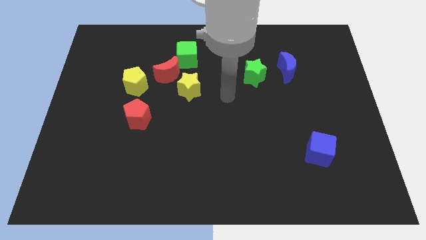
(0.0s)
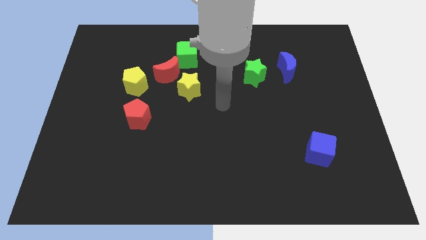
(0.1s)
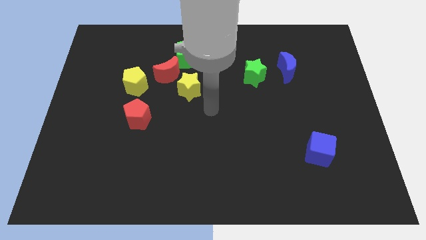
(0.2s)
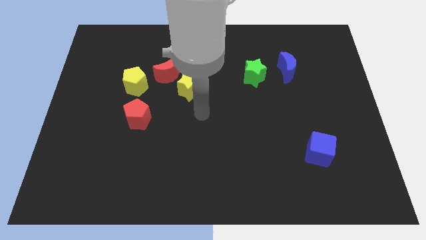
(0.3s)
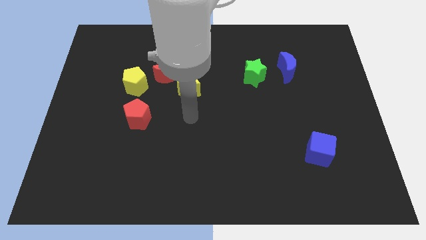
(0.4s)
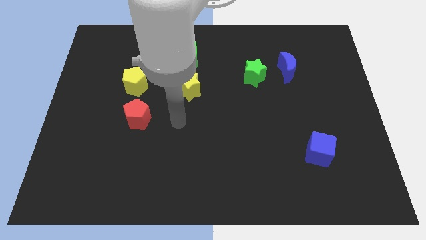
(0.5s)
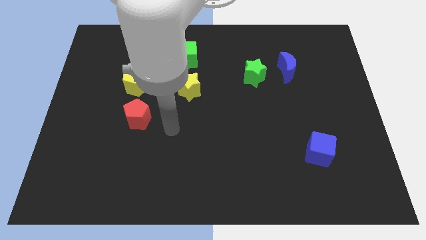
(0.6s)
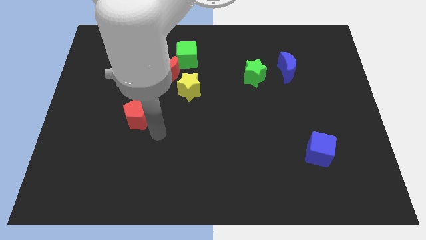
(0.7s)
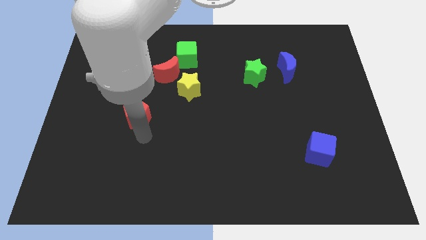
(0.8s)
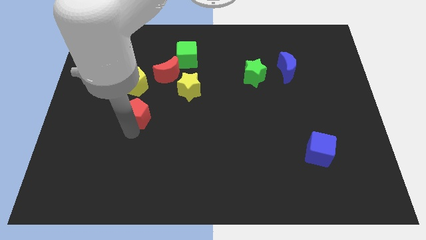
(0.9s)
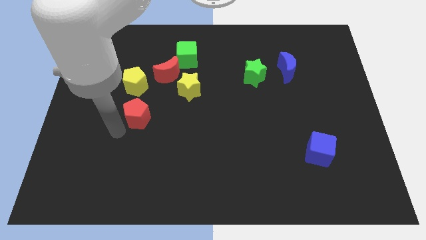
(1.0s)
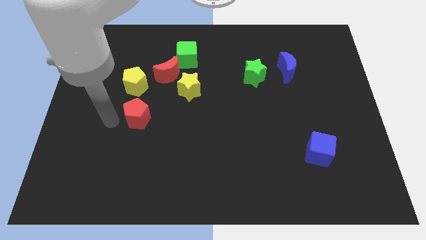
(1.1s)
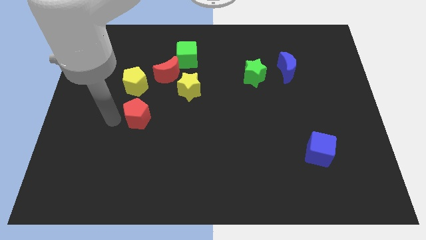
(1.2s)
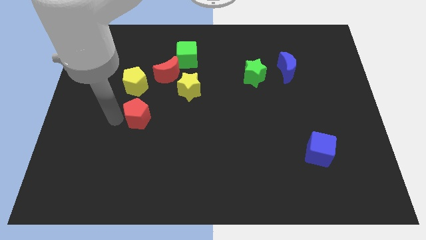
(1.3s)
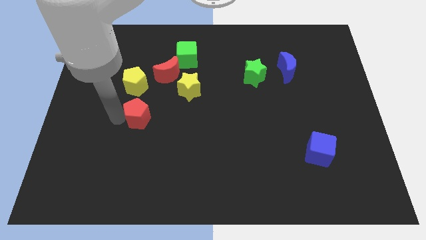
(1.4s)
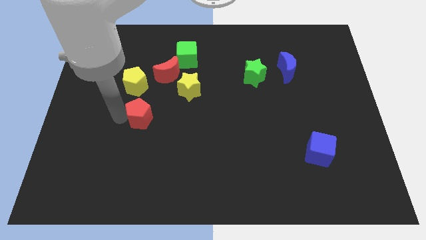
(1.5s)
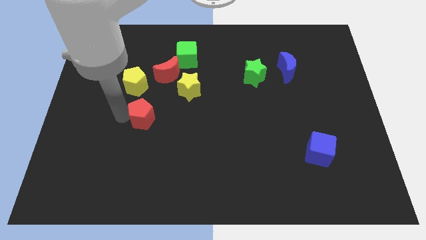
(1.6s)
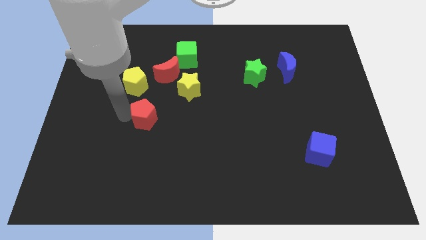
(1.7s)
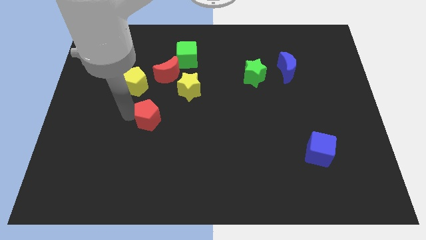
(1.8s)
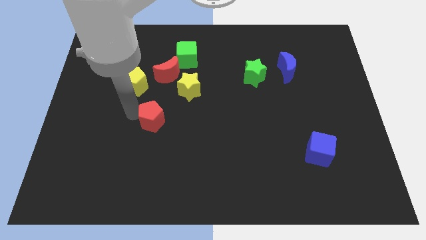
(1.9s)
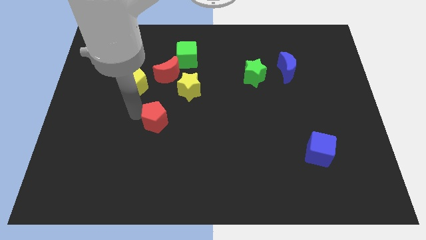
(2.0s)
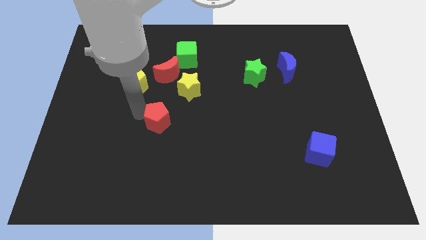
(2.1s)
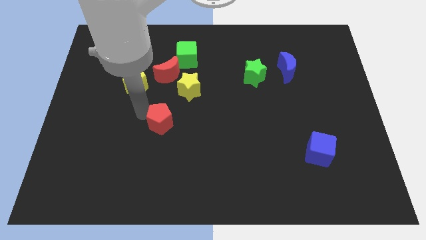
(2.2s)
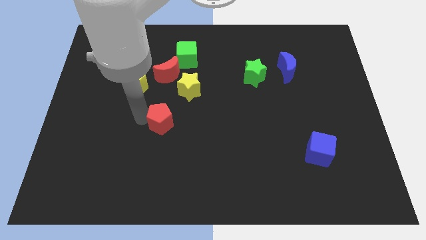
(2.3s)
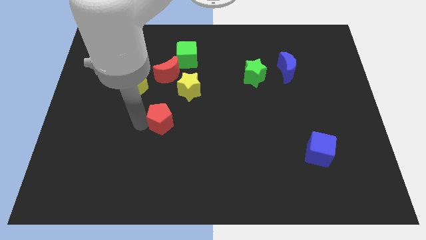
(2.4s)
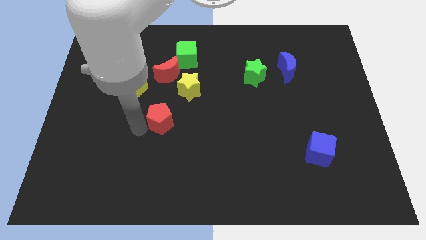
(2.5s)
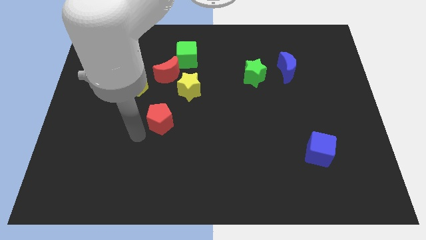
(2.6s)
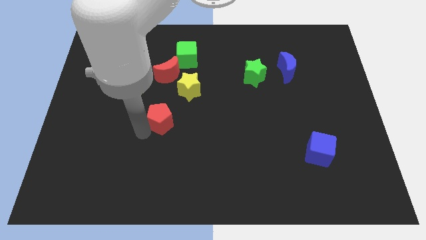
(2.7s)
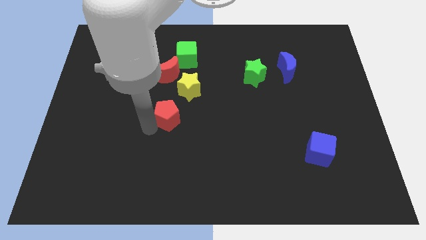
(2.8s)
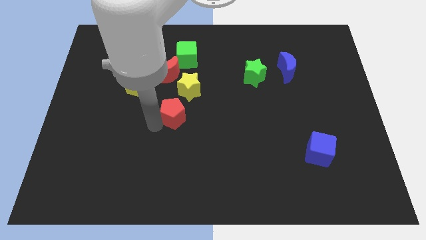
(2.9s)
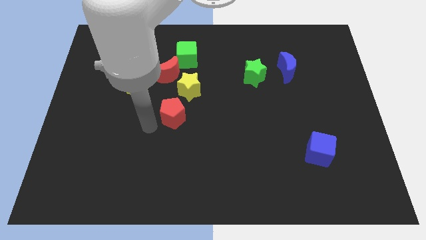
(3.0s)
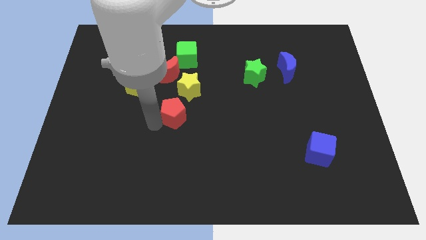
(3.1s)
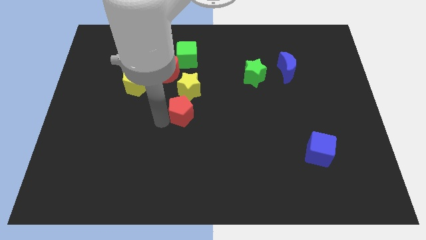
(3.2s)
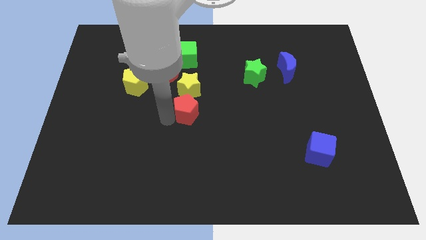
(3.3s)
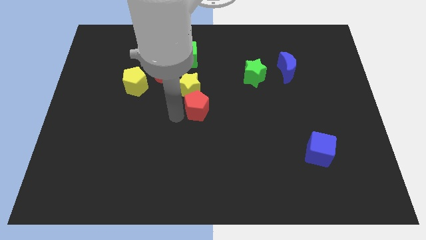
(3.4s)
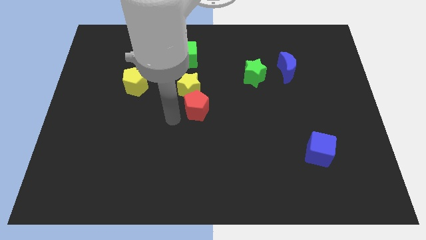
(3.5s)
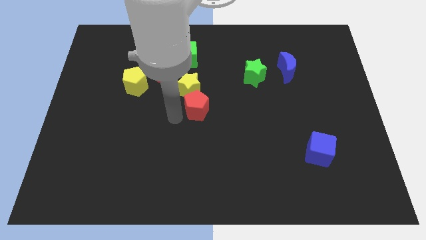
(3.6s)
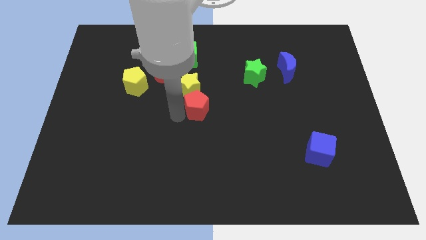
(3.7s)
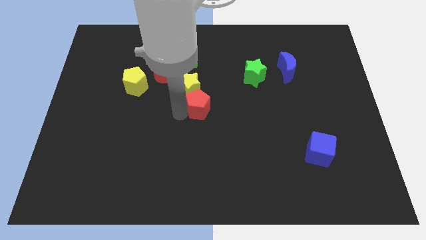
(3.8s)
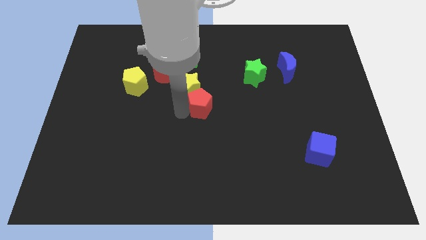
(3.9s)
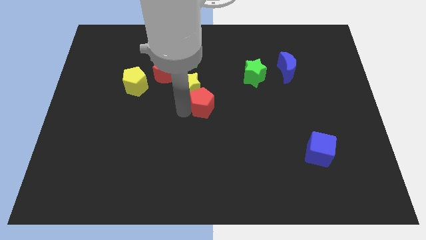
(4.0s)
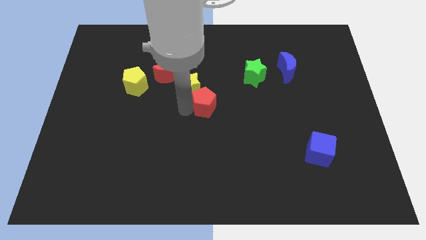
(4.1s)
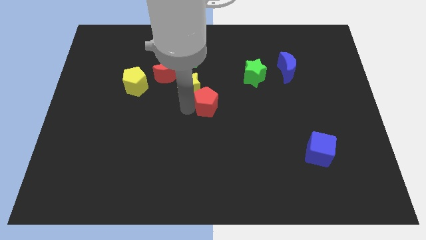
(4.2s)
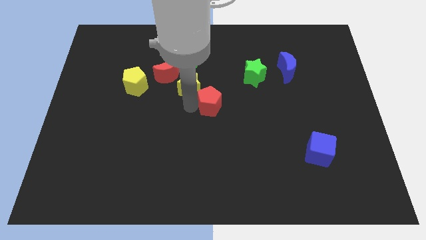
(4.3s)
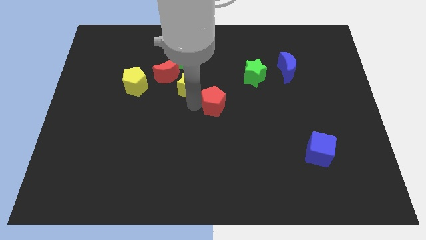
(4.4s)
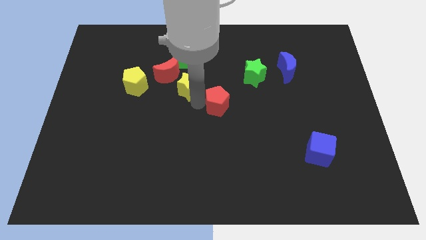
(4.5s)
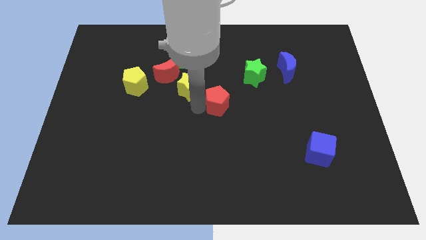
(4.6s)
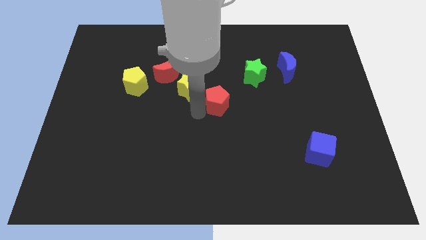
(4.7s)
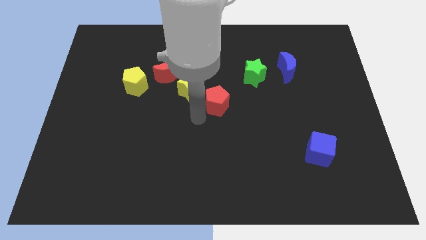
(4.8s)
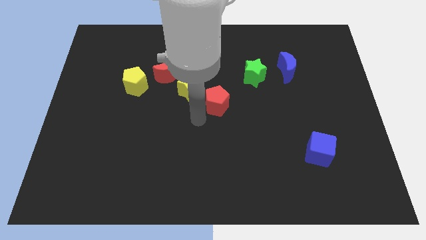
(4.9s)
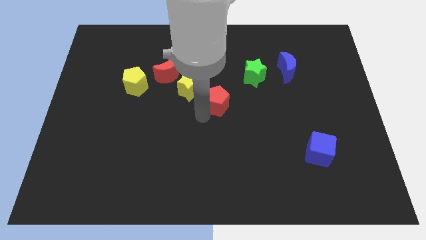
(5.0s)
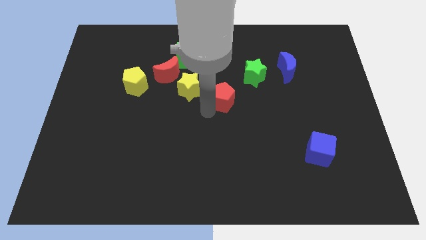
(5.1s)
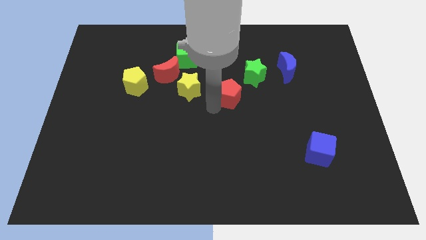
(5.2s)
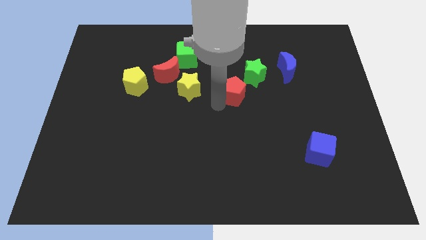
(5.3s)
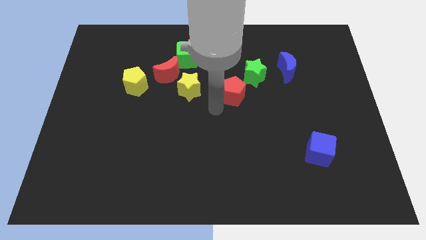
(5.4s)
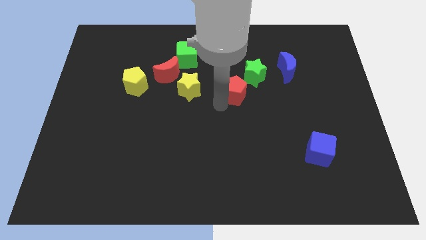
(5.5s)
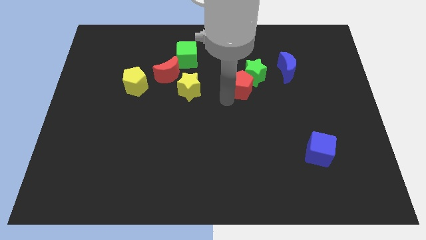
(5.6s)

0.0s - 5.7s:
push the red pentagon close to the green star

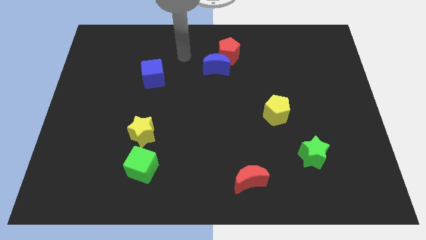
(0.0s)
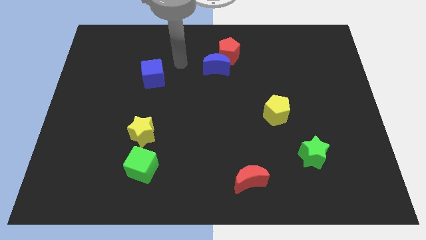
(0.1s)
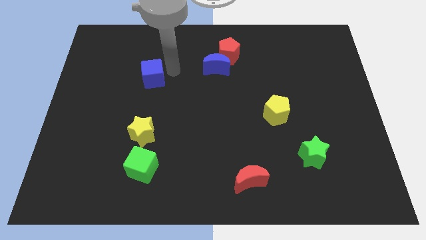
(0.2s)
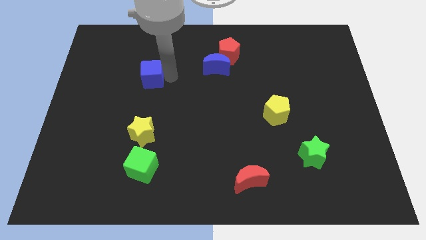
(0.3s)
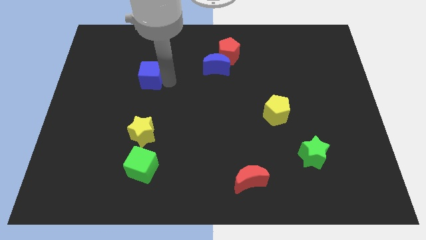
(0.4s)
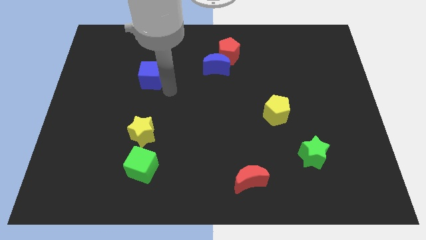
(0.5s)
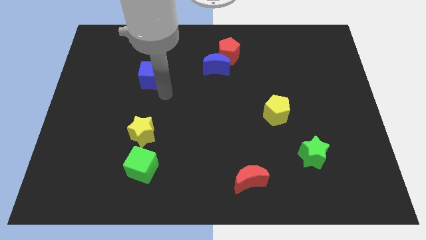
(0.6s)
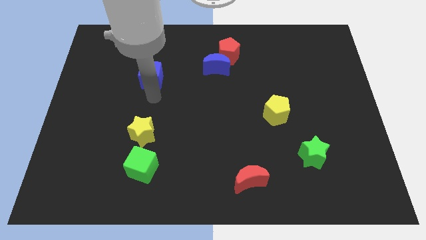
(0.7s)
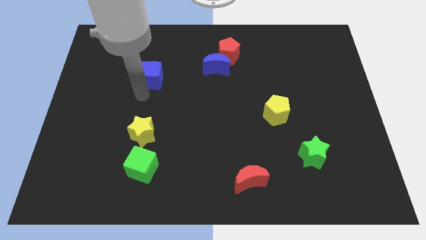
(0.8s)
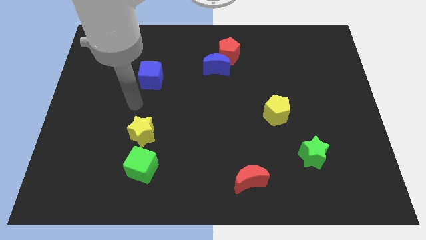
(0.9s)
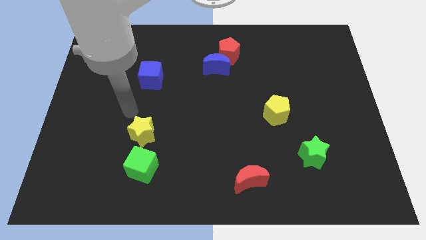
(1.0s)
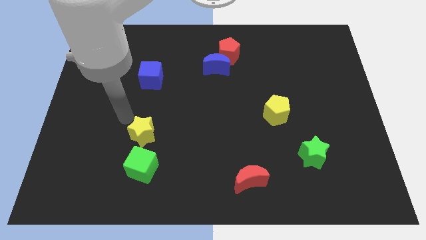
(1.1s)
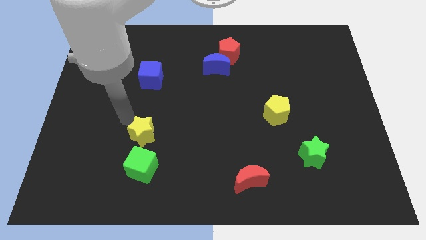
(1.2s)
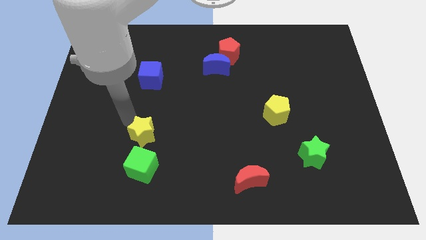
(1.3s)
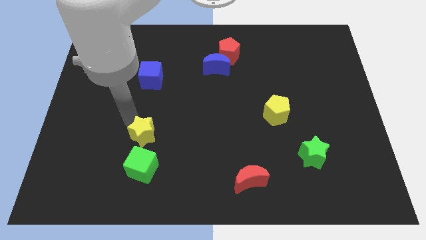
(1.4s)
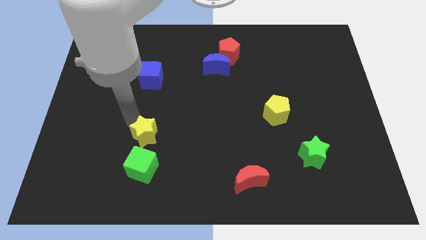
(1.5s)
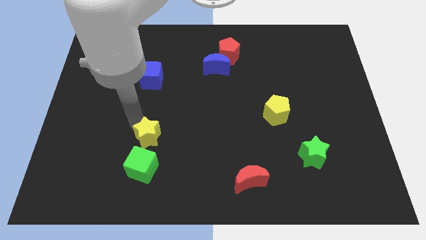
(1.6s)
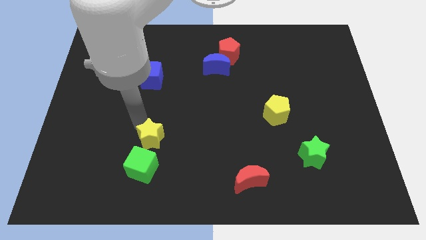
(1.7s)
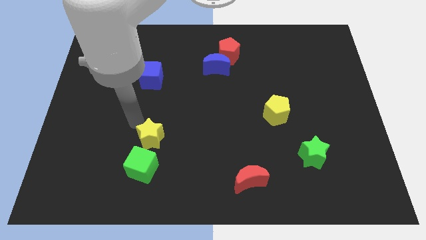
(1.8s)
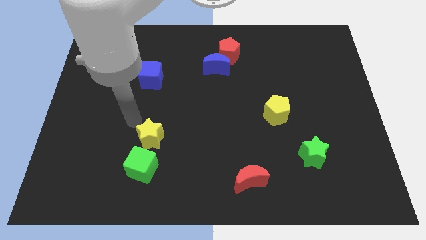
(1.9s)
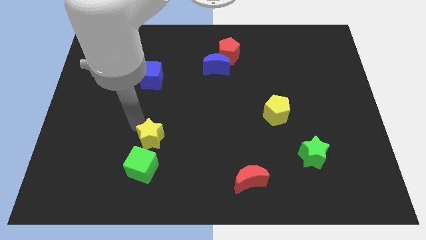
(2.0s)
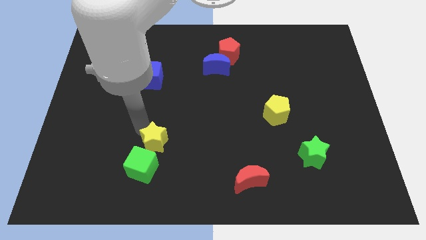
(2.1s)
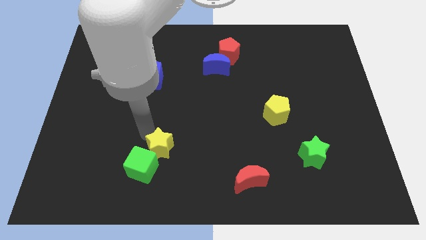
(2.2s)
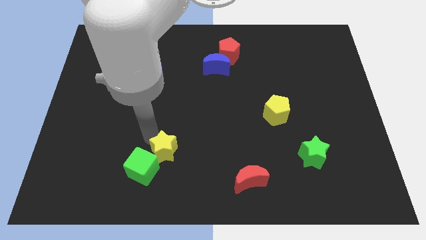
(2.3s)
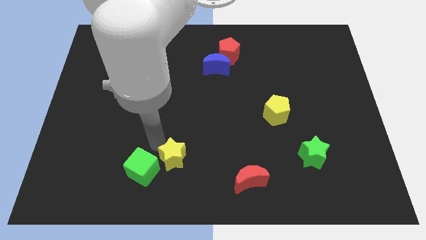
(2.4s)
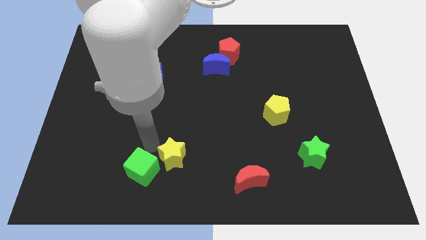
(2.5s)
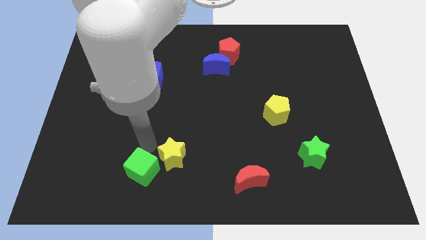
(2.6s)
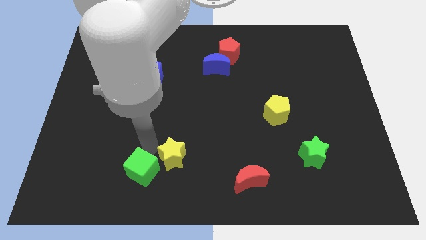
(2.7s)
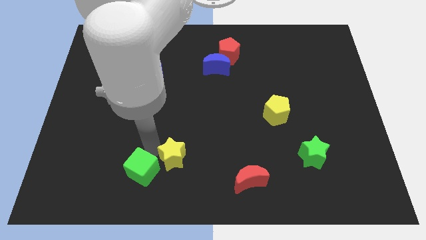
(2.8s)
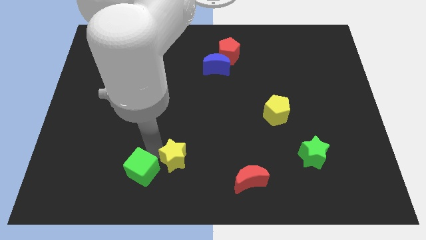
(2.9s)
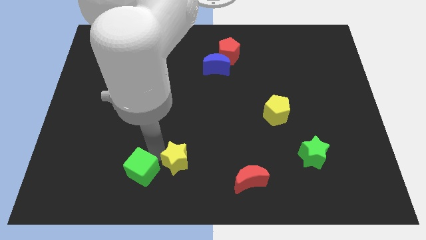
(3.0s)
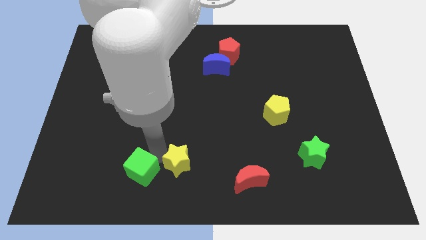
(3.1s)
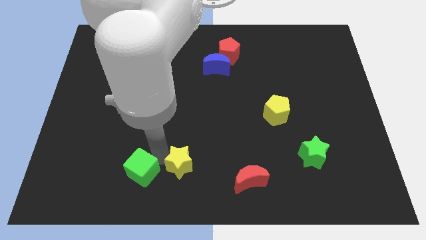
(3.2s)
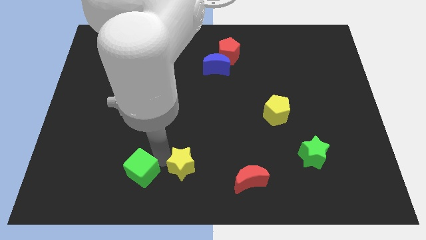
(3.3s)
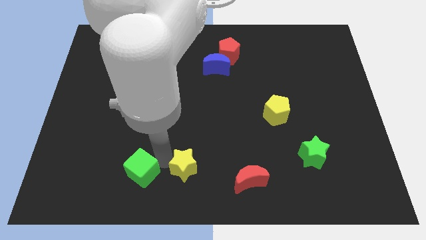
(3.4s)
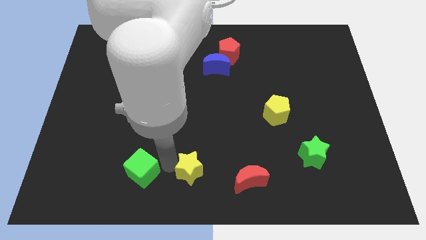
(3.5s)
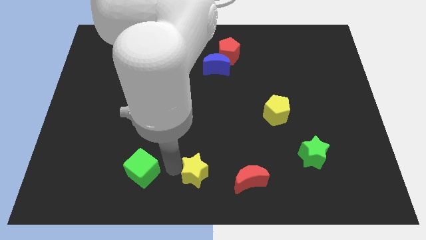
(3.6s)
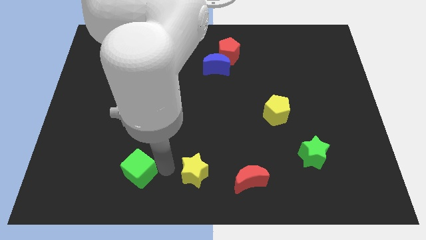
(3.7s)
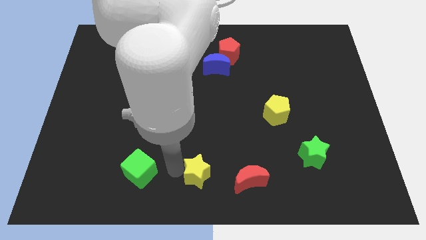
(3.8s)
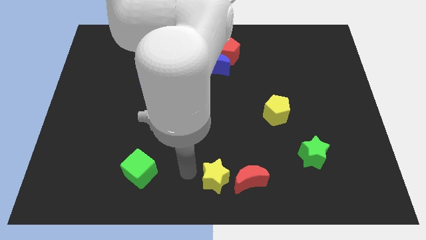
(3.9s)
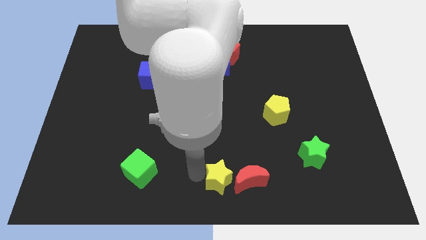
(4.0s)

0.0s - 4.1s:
put the yellow star next to the red moon
